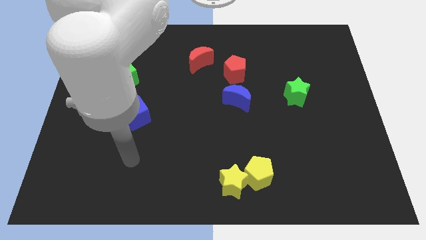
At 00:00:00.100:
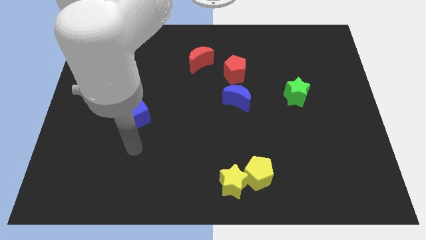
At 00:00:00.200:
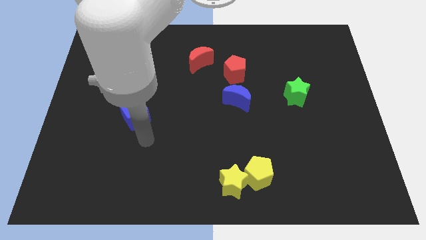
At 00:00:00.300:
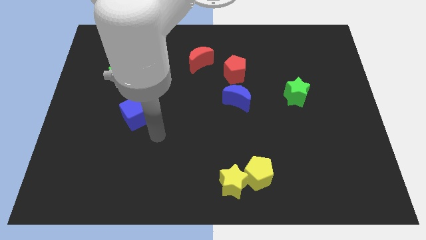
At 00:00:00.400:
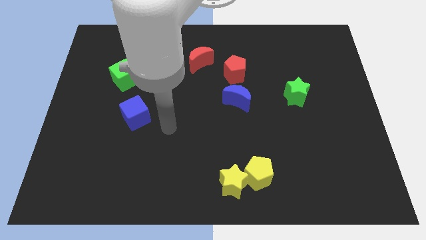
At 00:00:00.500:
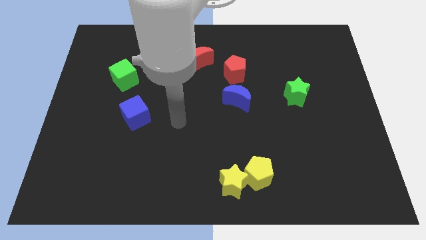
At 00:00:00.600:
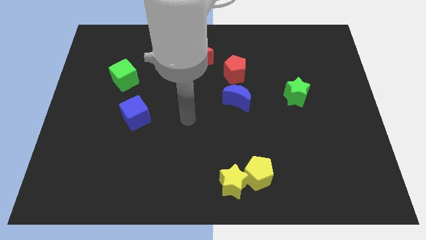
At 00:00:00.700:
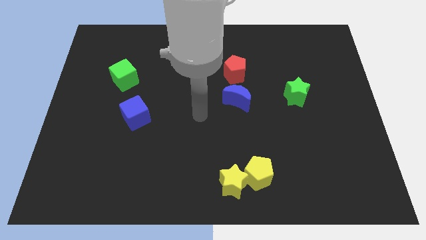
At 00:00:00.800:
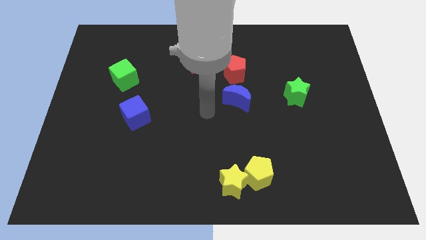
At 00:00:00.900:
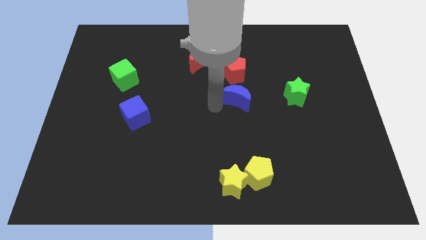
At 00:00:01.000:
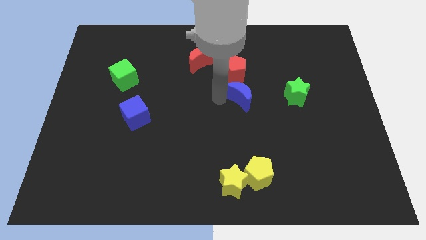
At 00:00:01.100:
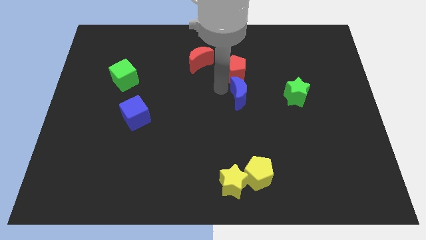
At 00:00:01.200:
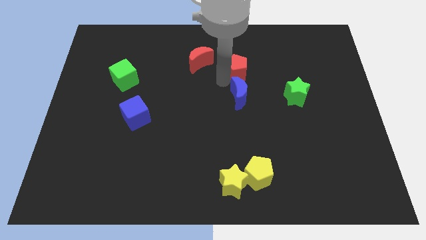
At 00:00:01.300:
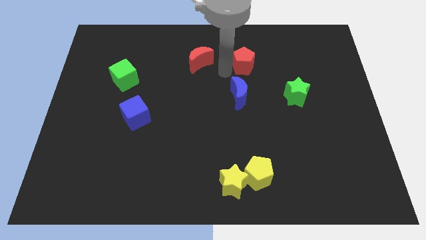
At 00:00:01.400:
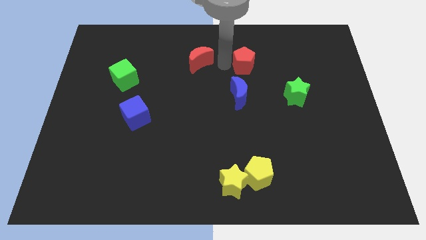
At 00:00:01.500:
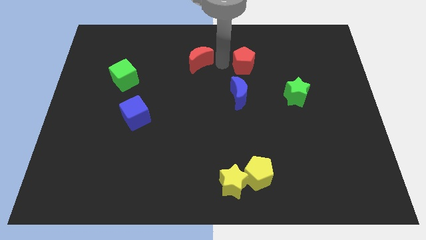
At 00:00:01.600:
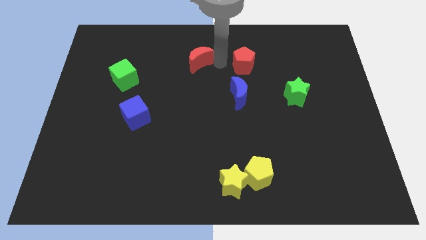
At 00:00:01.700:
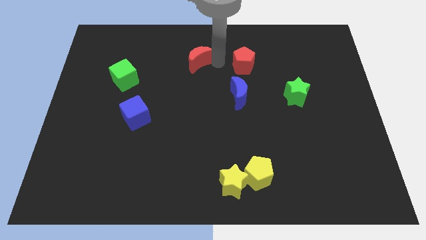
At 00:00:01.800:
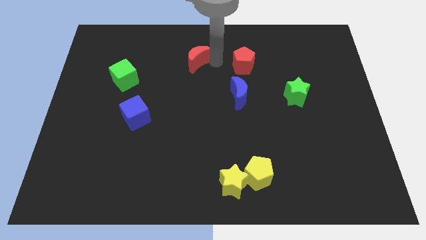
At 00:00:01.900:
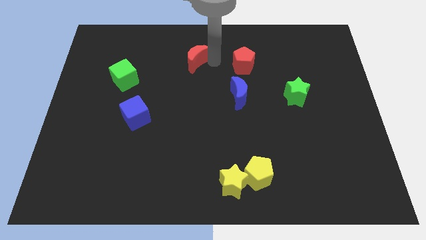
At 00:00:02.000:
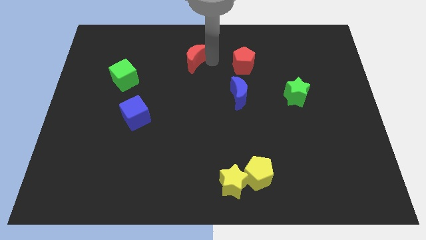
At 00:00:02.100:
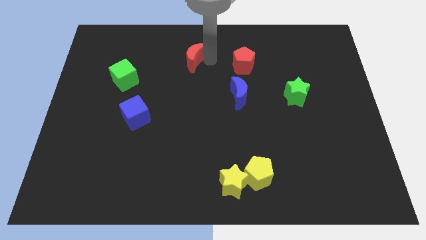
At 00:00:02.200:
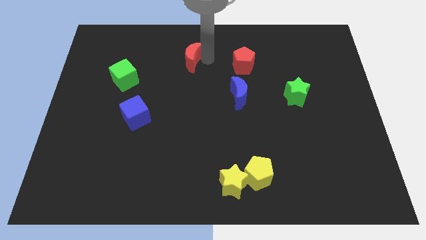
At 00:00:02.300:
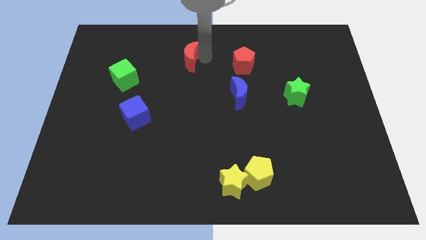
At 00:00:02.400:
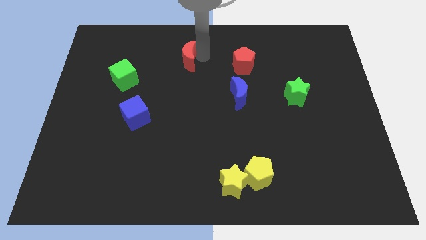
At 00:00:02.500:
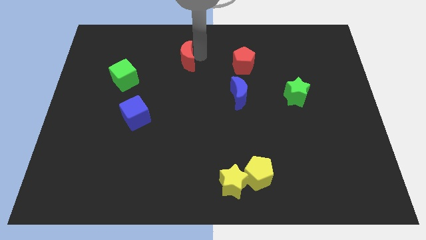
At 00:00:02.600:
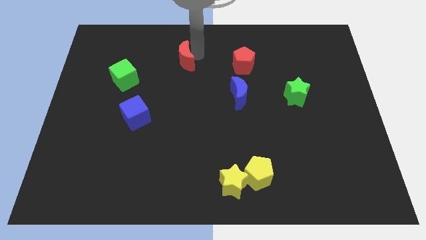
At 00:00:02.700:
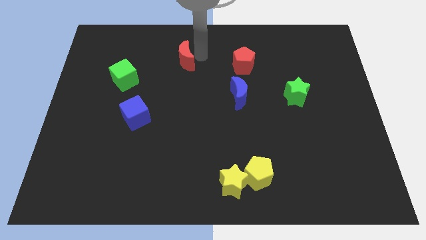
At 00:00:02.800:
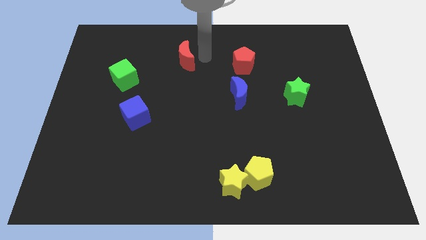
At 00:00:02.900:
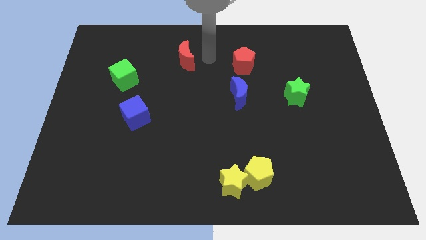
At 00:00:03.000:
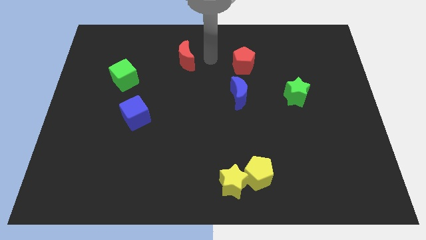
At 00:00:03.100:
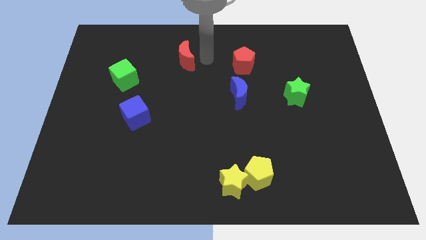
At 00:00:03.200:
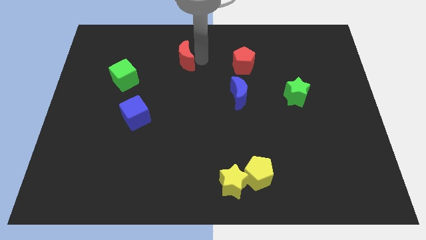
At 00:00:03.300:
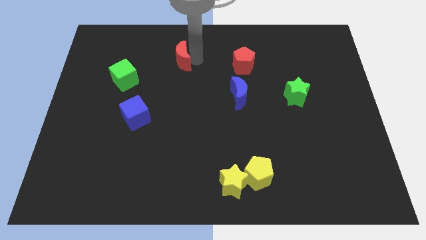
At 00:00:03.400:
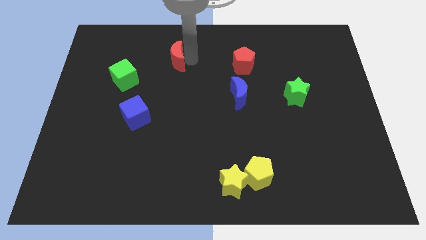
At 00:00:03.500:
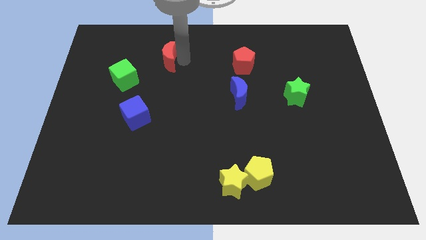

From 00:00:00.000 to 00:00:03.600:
move the red moon a bit left

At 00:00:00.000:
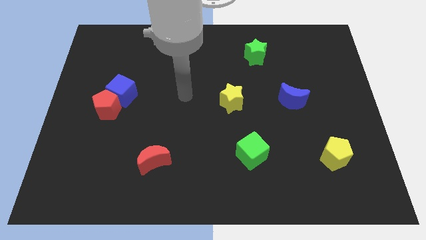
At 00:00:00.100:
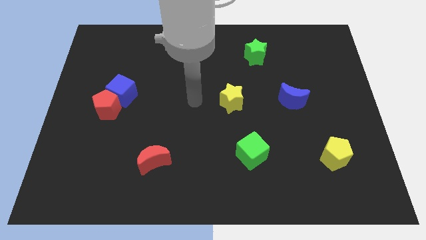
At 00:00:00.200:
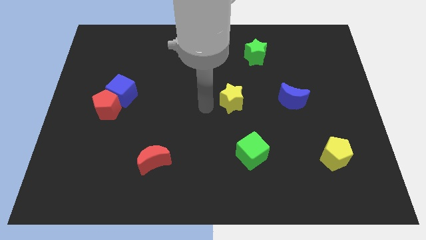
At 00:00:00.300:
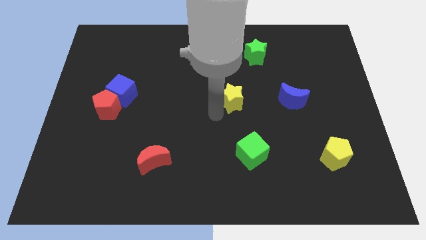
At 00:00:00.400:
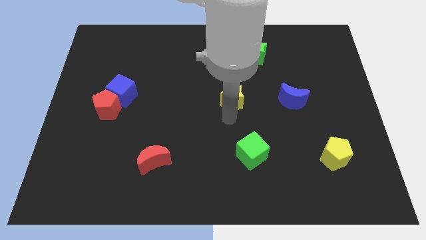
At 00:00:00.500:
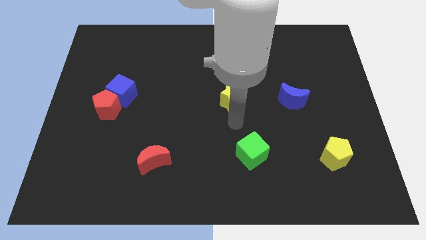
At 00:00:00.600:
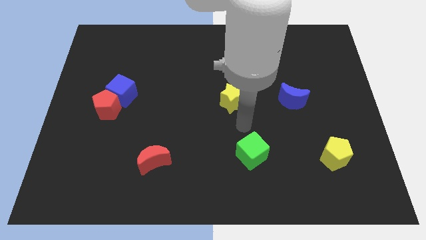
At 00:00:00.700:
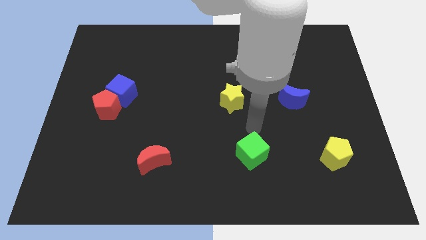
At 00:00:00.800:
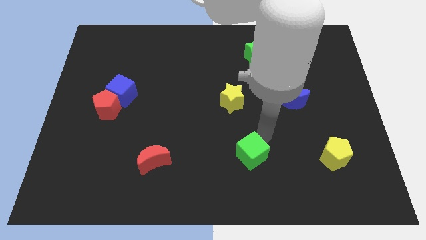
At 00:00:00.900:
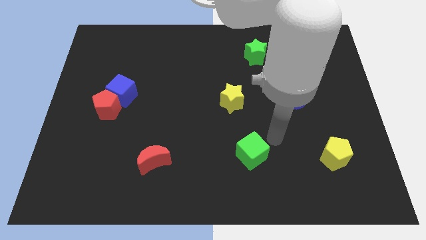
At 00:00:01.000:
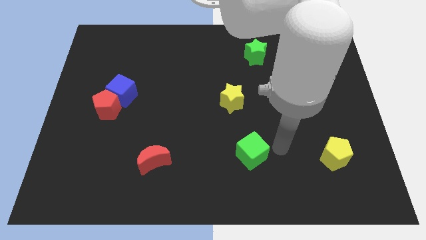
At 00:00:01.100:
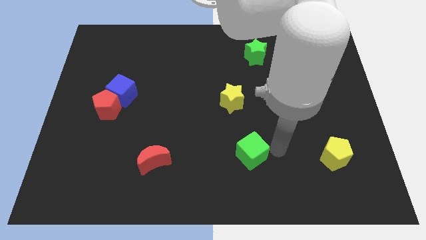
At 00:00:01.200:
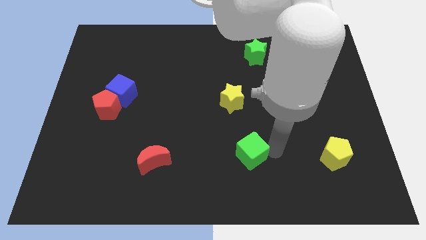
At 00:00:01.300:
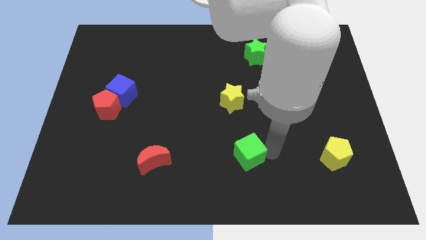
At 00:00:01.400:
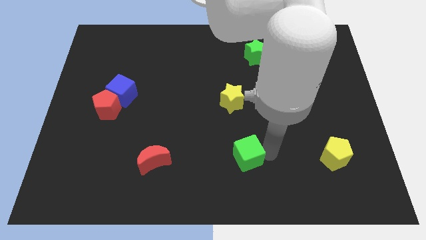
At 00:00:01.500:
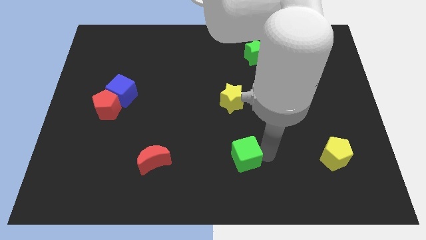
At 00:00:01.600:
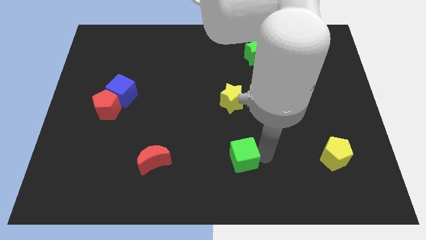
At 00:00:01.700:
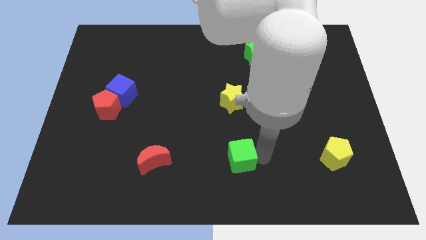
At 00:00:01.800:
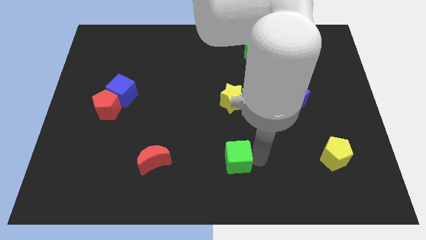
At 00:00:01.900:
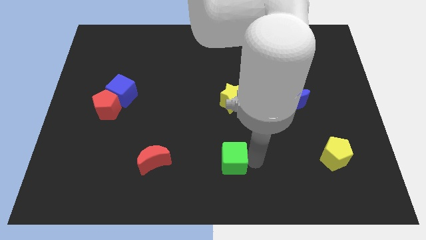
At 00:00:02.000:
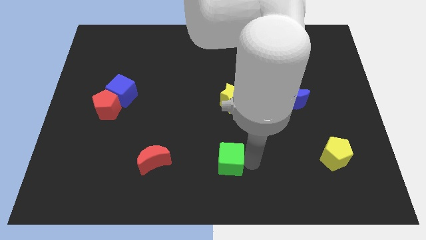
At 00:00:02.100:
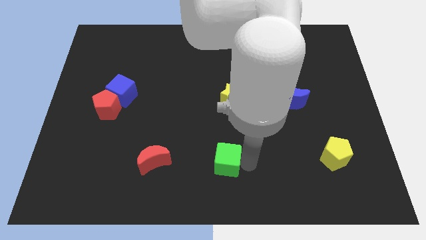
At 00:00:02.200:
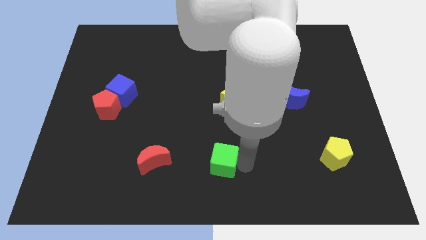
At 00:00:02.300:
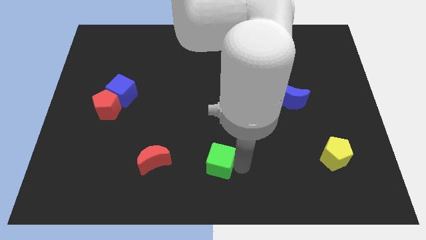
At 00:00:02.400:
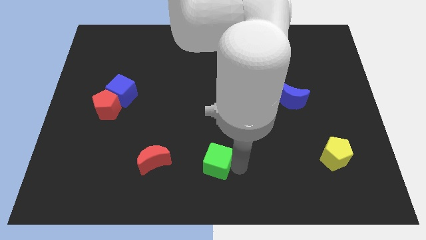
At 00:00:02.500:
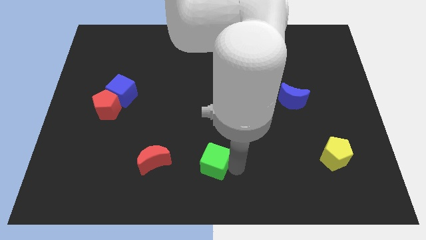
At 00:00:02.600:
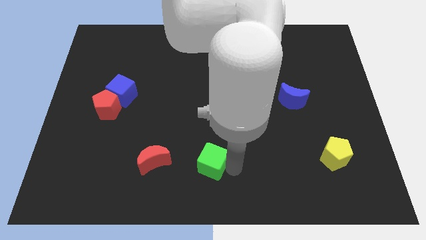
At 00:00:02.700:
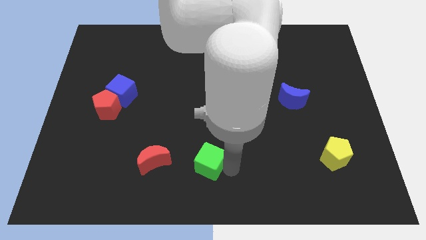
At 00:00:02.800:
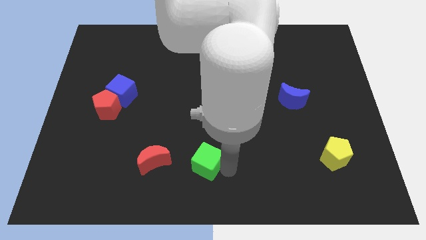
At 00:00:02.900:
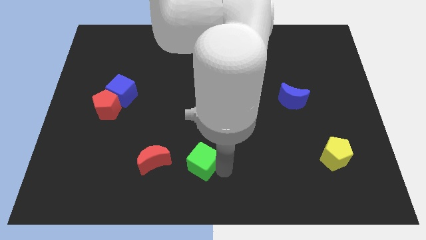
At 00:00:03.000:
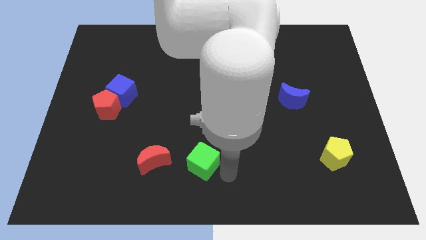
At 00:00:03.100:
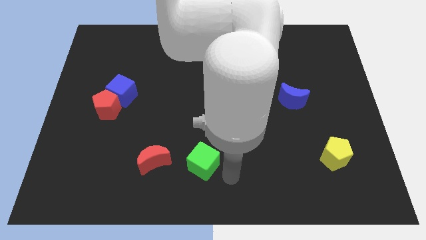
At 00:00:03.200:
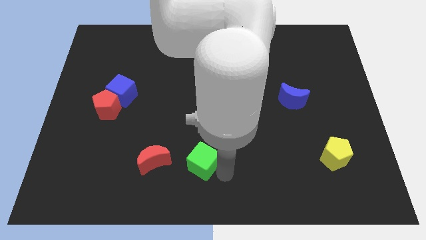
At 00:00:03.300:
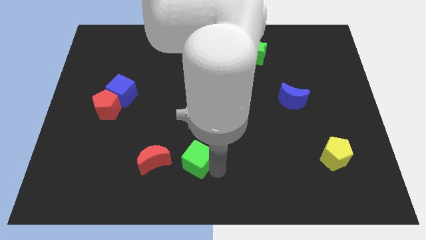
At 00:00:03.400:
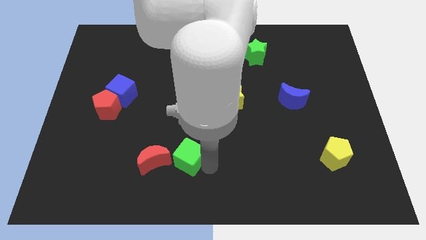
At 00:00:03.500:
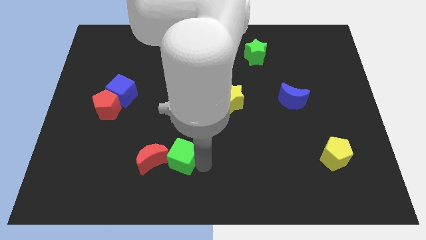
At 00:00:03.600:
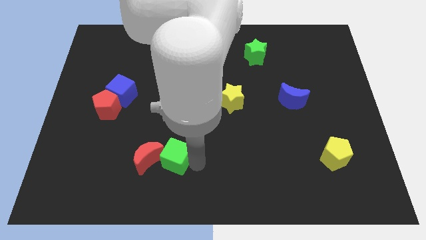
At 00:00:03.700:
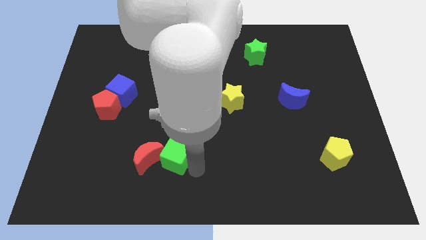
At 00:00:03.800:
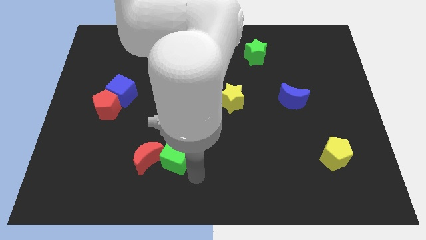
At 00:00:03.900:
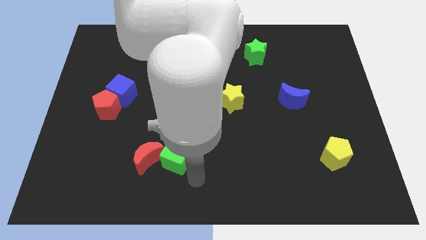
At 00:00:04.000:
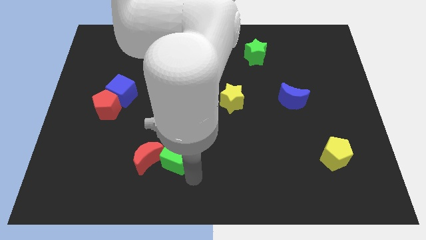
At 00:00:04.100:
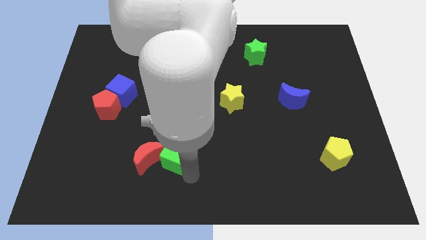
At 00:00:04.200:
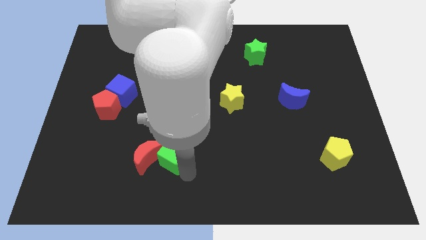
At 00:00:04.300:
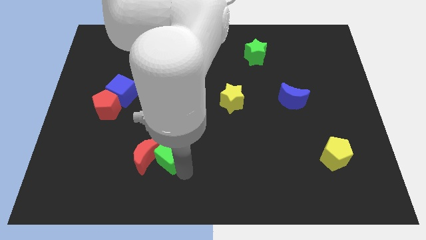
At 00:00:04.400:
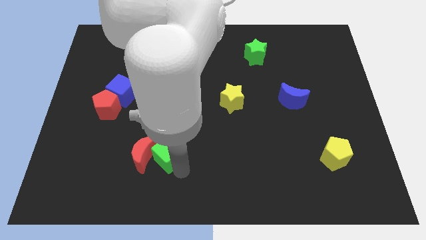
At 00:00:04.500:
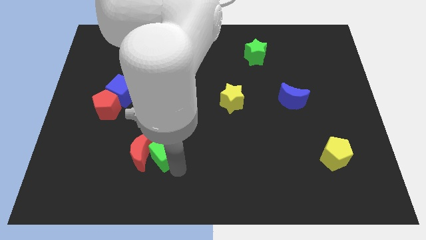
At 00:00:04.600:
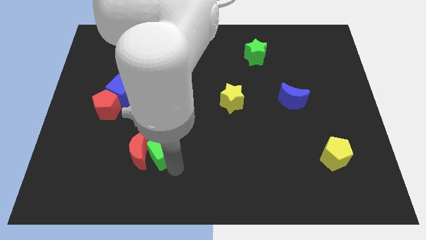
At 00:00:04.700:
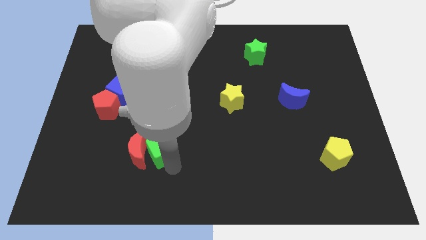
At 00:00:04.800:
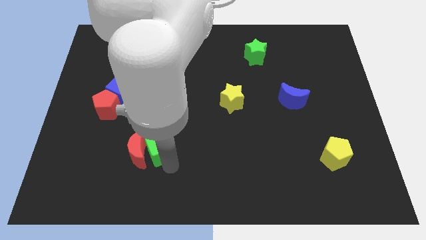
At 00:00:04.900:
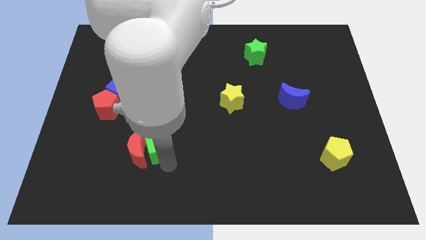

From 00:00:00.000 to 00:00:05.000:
push the green cube to the left
